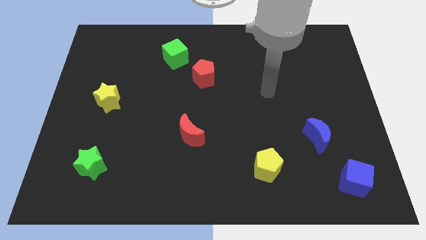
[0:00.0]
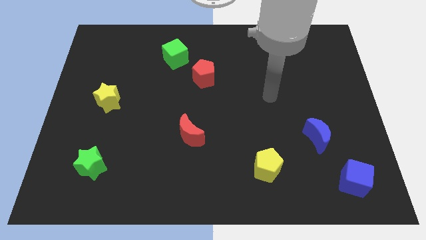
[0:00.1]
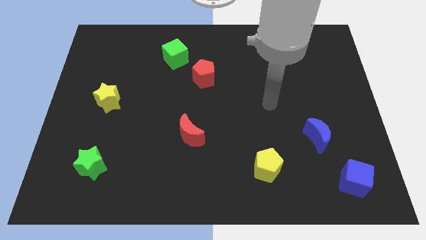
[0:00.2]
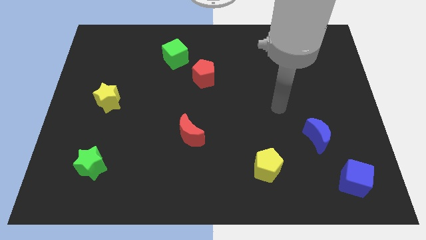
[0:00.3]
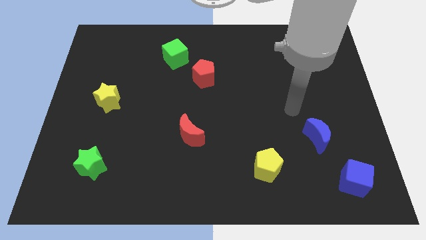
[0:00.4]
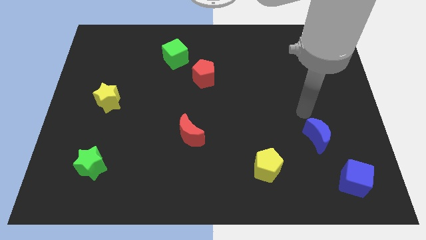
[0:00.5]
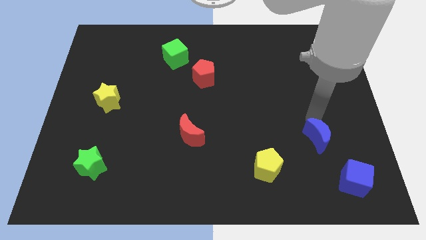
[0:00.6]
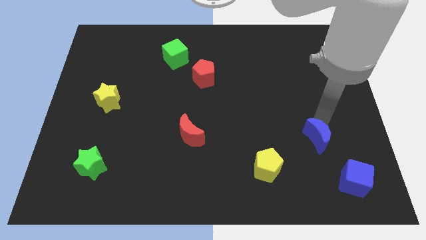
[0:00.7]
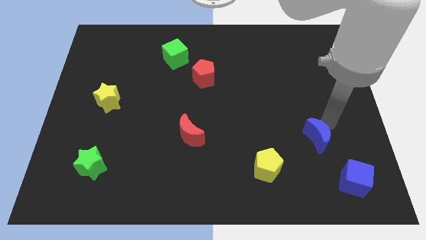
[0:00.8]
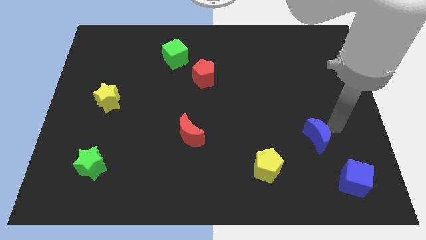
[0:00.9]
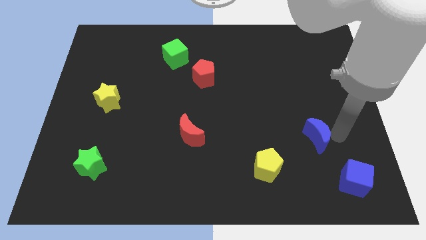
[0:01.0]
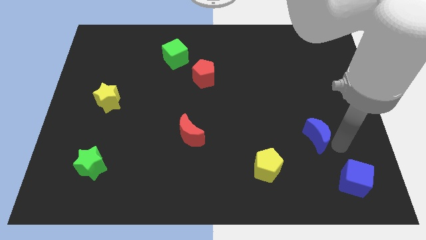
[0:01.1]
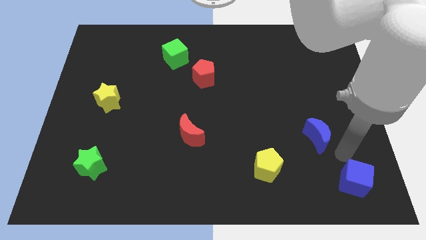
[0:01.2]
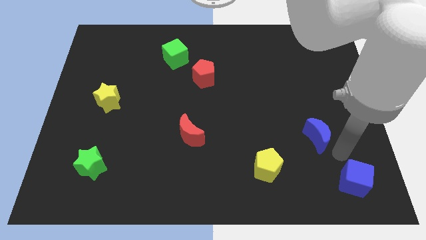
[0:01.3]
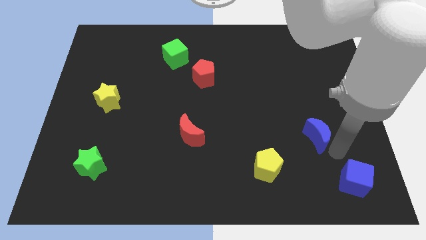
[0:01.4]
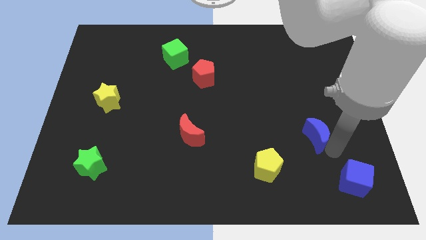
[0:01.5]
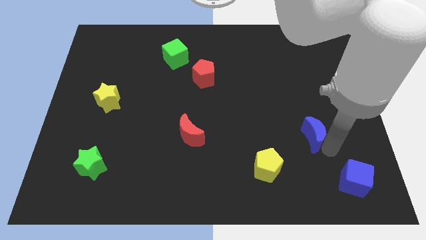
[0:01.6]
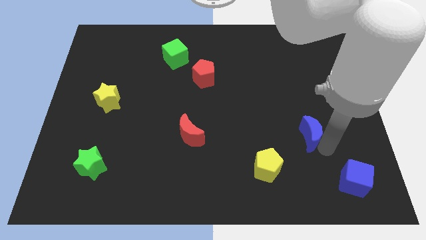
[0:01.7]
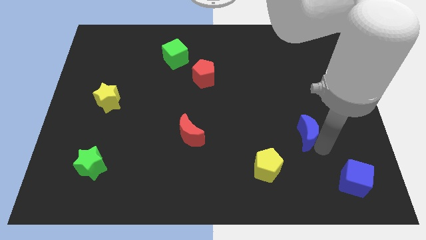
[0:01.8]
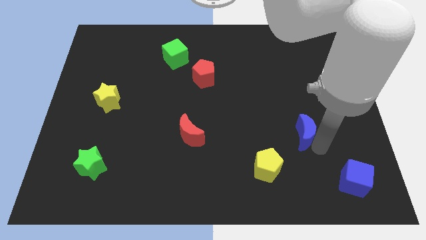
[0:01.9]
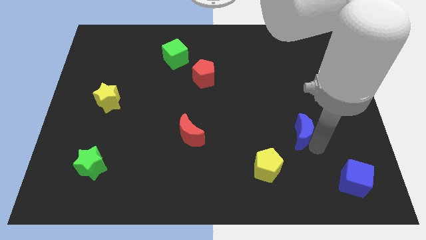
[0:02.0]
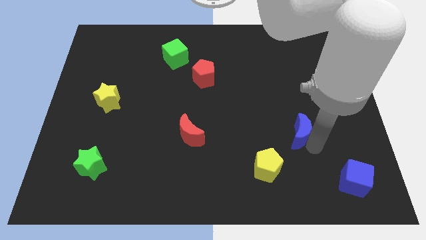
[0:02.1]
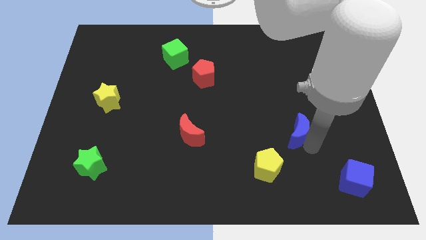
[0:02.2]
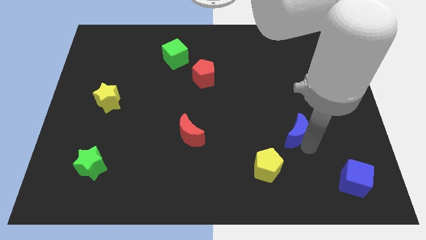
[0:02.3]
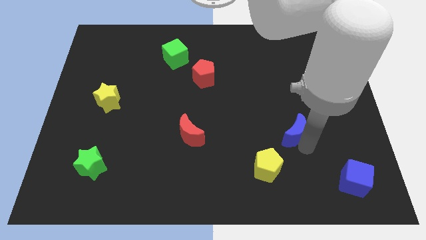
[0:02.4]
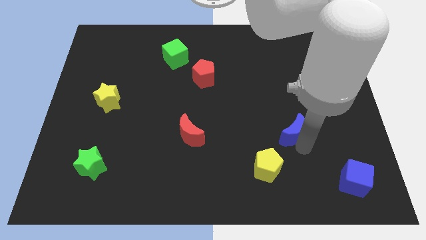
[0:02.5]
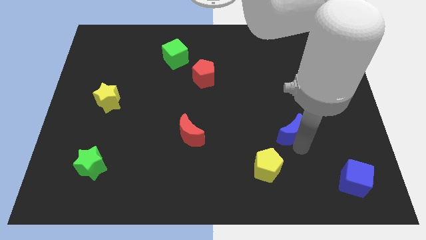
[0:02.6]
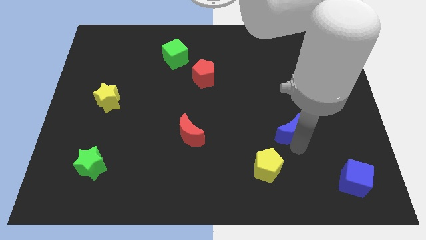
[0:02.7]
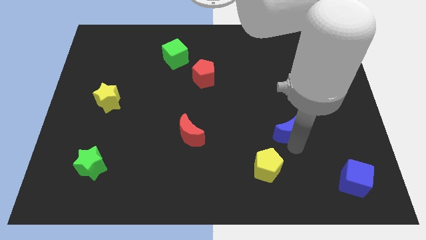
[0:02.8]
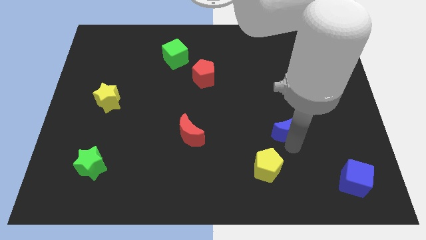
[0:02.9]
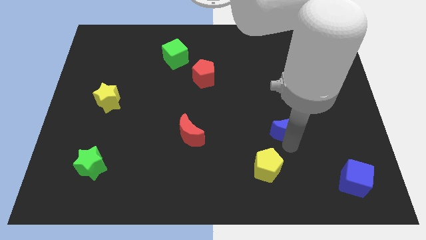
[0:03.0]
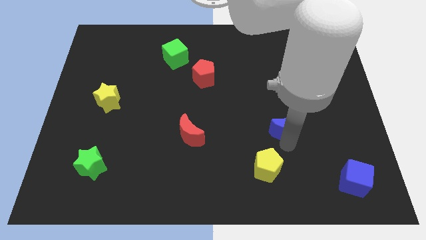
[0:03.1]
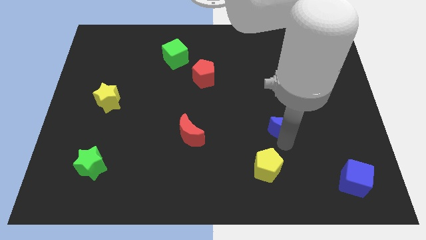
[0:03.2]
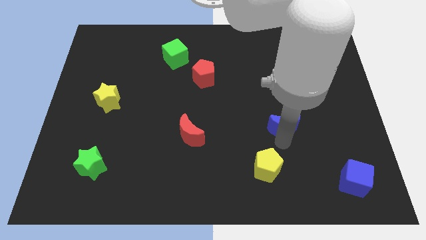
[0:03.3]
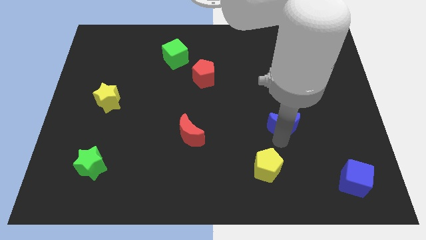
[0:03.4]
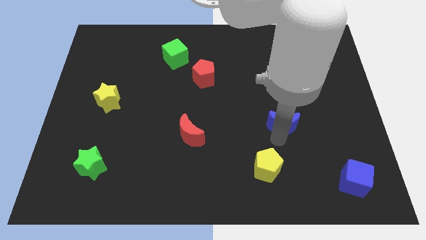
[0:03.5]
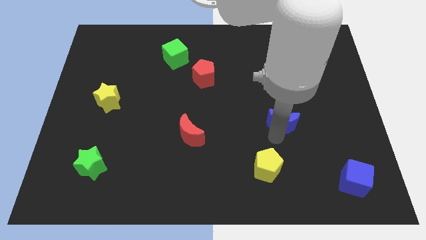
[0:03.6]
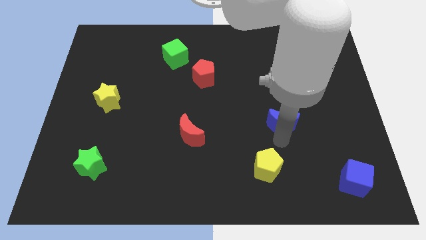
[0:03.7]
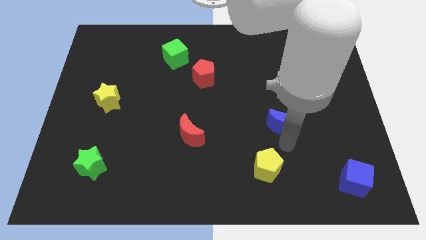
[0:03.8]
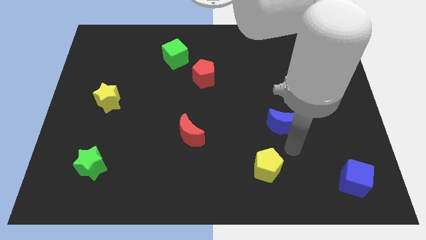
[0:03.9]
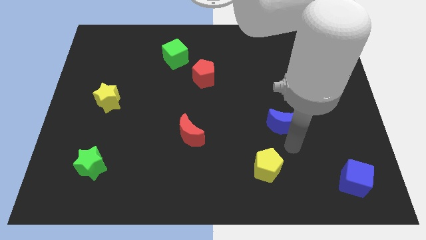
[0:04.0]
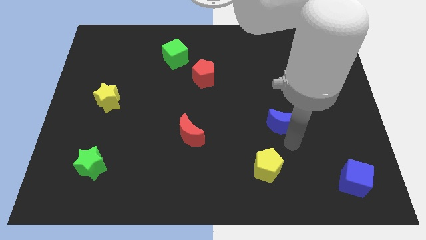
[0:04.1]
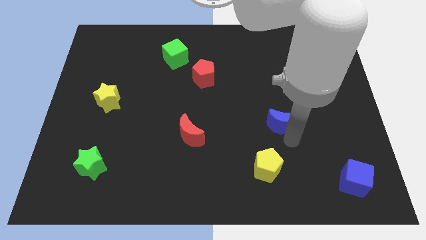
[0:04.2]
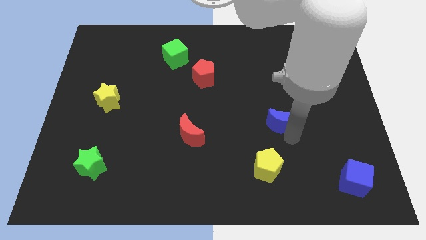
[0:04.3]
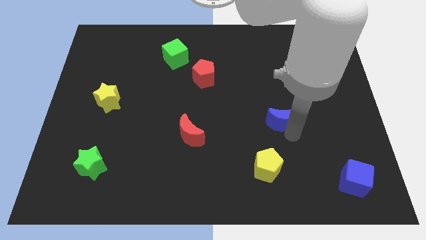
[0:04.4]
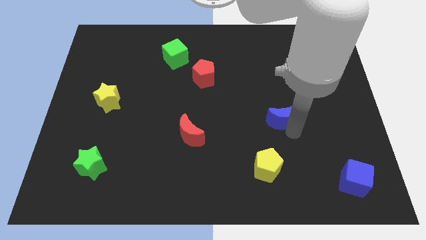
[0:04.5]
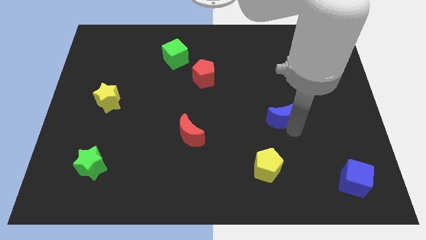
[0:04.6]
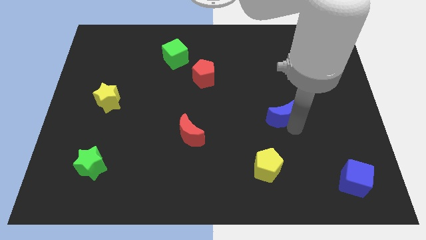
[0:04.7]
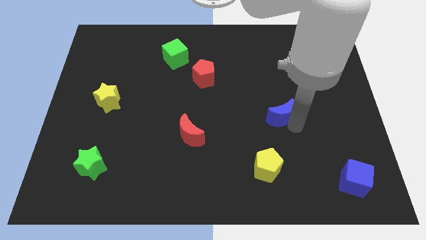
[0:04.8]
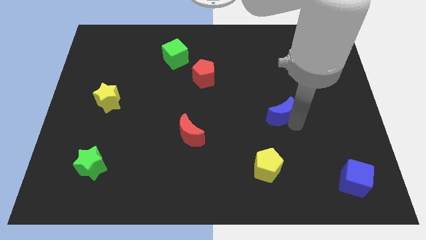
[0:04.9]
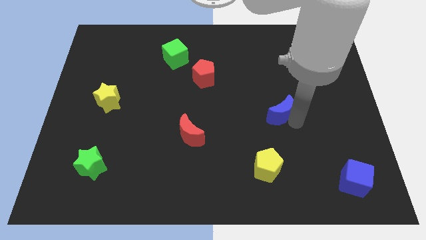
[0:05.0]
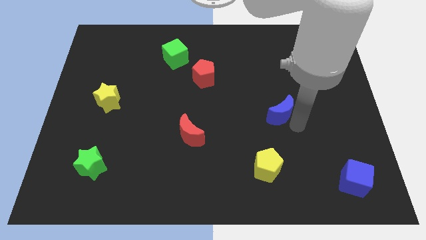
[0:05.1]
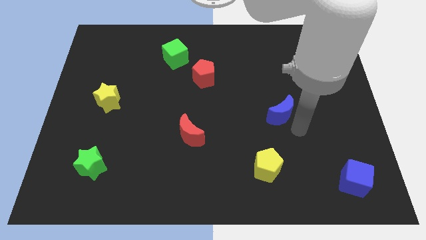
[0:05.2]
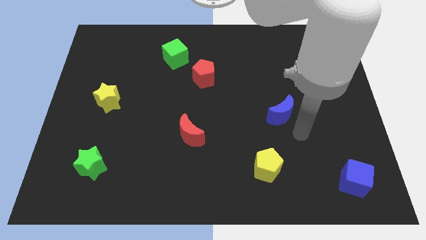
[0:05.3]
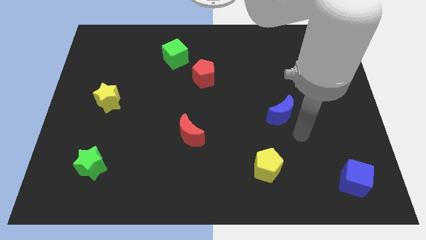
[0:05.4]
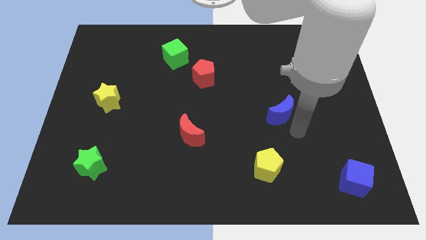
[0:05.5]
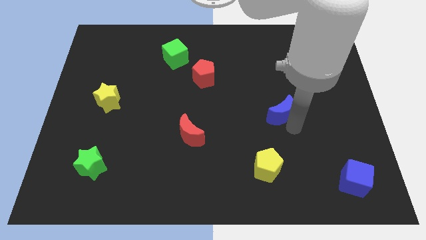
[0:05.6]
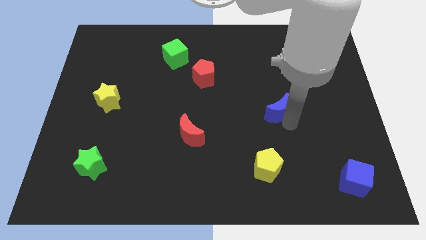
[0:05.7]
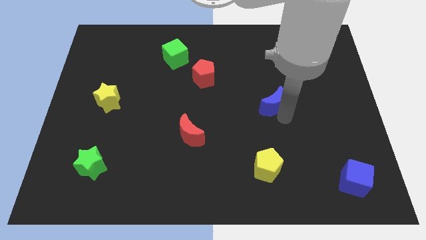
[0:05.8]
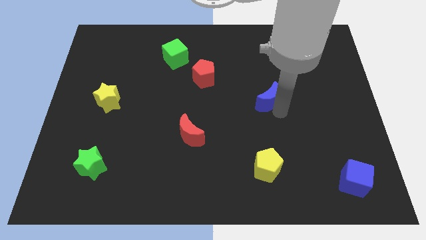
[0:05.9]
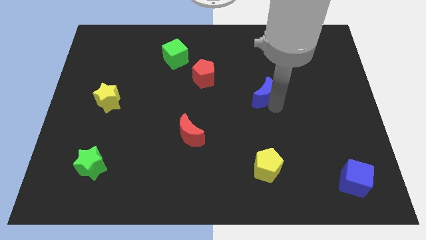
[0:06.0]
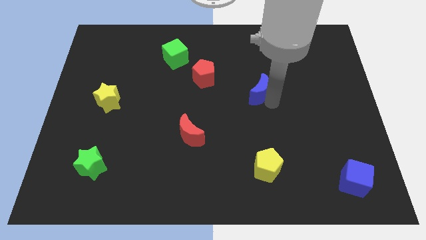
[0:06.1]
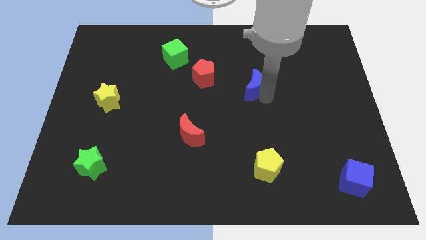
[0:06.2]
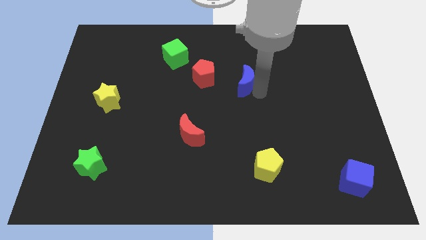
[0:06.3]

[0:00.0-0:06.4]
move the blue moon up and left diagonally

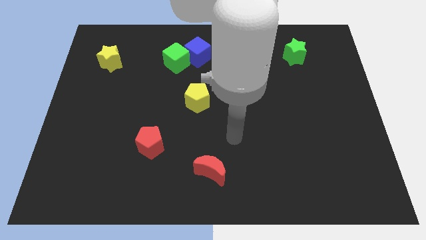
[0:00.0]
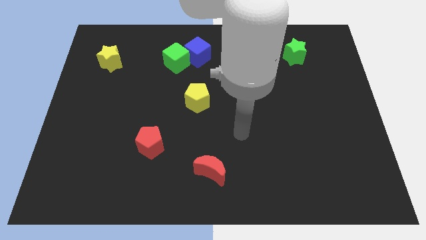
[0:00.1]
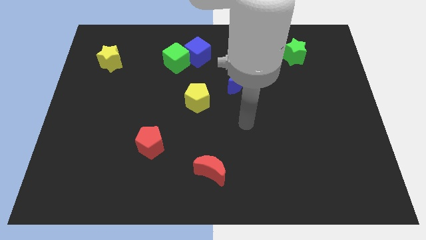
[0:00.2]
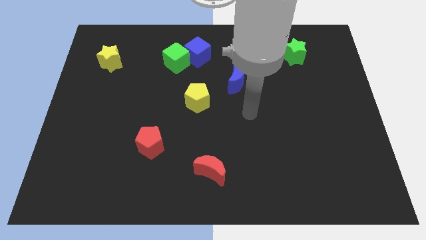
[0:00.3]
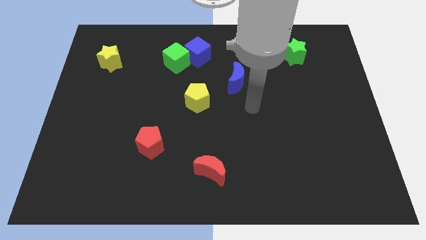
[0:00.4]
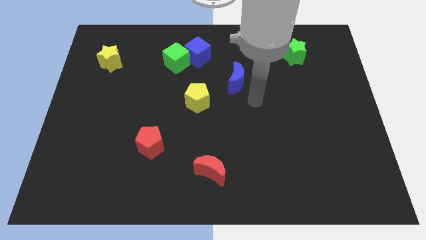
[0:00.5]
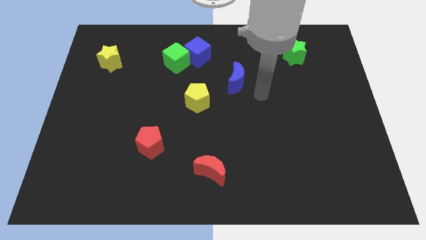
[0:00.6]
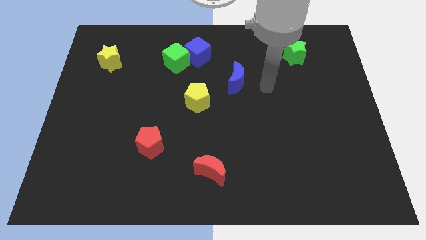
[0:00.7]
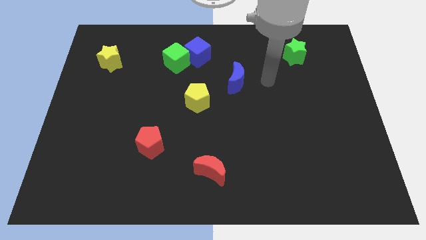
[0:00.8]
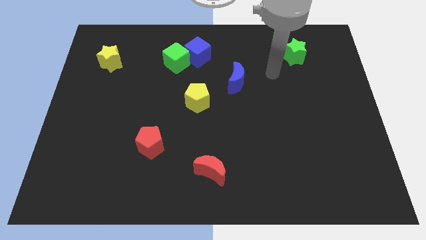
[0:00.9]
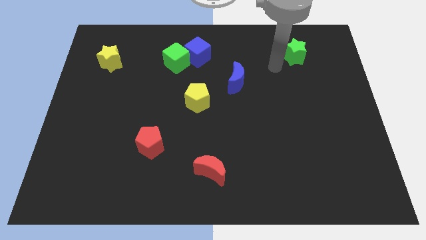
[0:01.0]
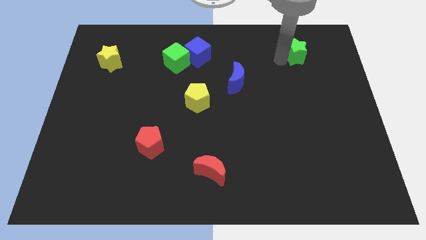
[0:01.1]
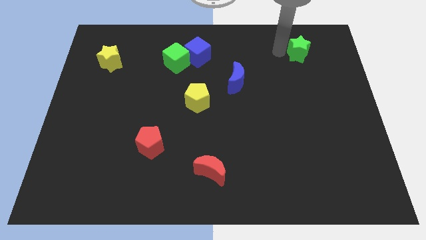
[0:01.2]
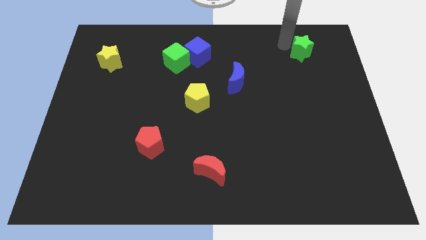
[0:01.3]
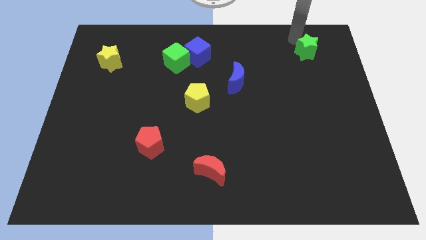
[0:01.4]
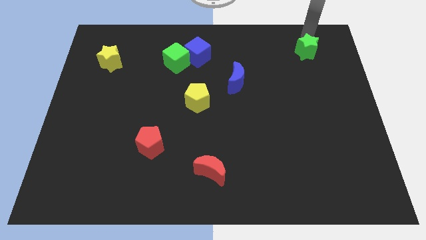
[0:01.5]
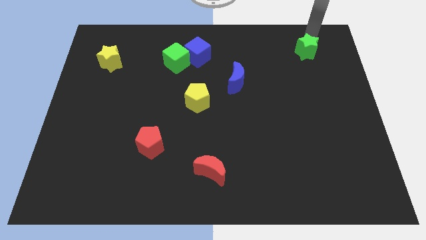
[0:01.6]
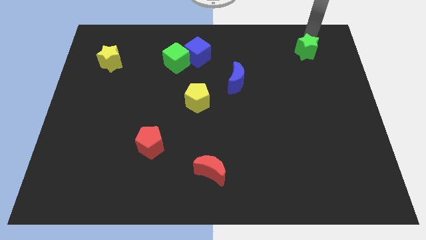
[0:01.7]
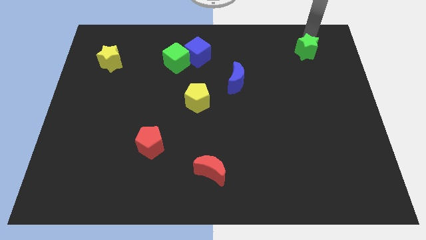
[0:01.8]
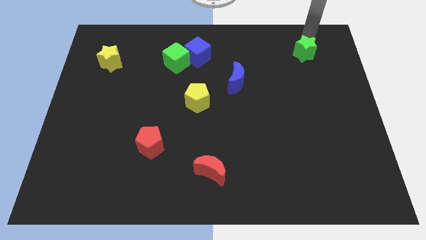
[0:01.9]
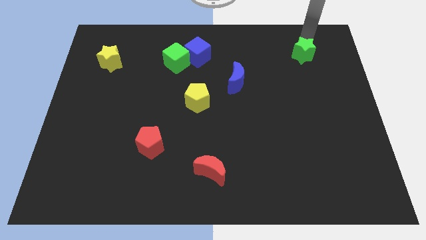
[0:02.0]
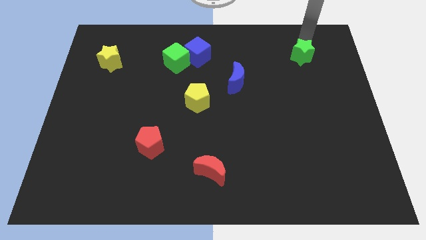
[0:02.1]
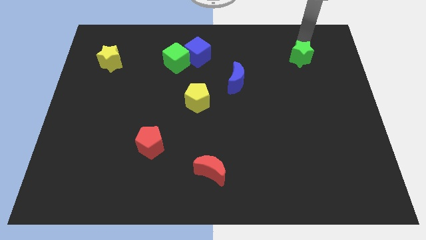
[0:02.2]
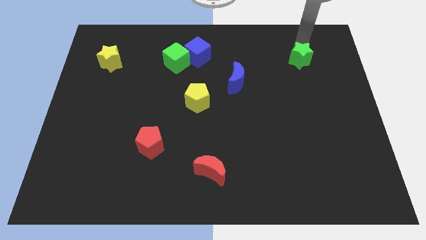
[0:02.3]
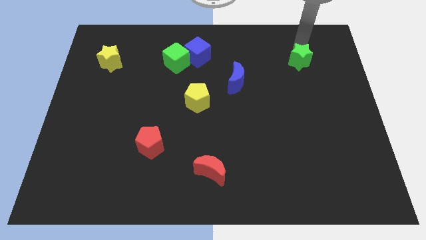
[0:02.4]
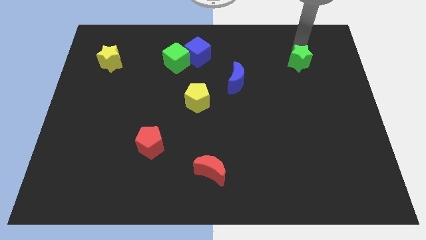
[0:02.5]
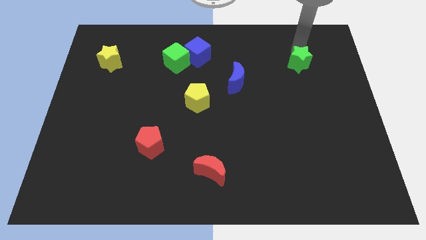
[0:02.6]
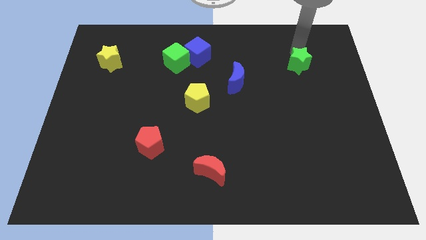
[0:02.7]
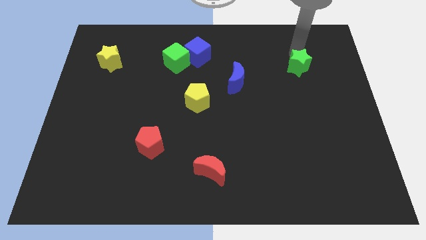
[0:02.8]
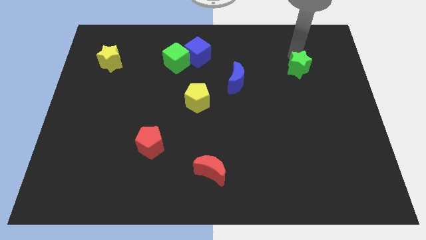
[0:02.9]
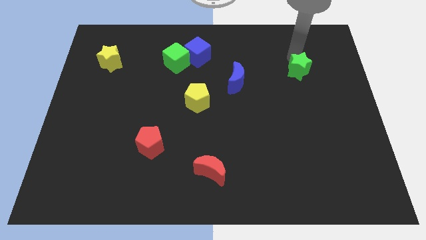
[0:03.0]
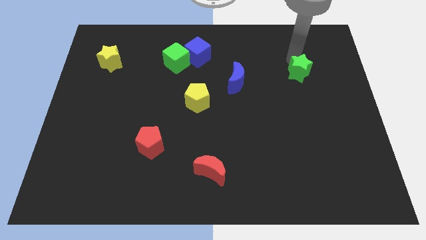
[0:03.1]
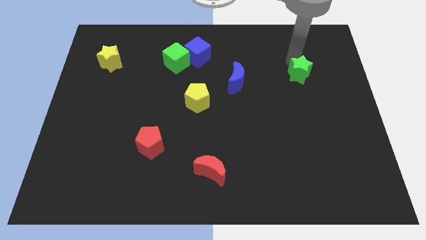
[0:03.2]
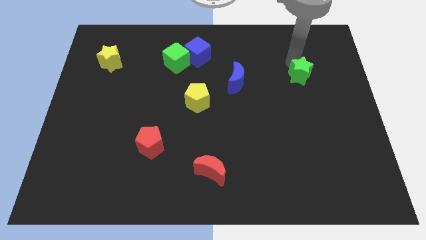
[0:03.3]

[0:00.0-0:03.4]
slightly move the green star downwards
